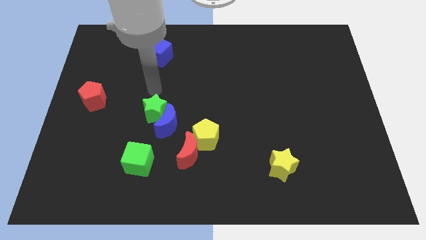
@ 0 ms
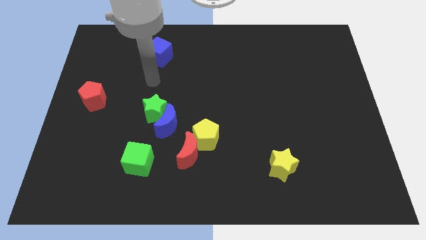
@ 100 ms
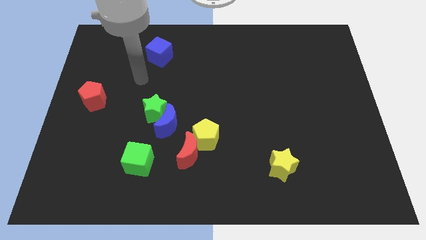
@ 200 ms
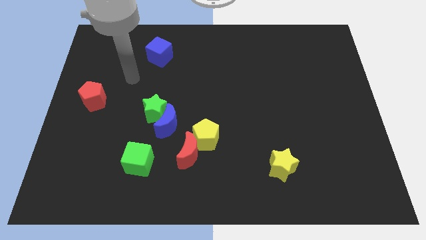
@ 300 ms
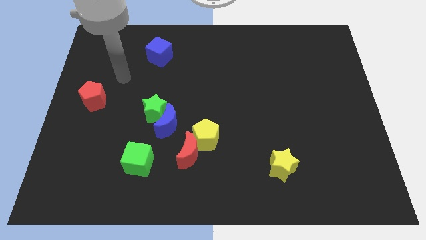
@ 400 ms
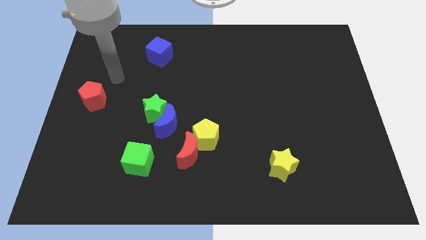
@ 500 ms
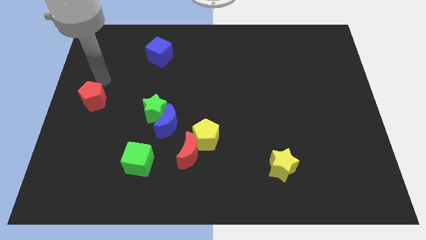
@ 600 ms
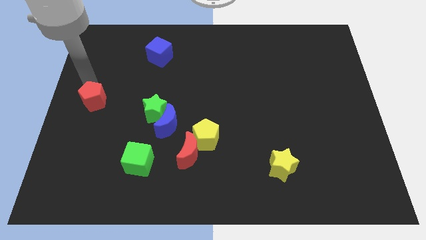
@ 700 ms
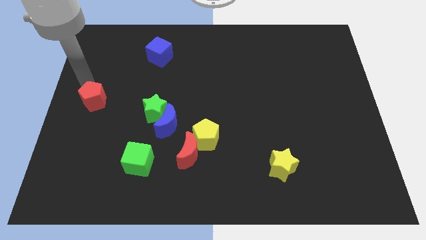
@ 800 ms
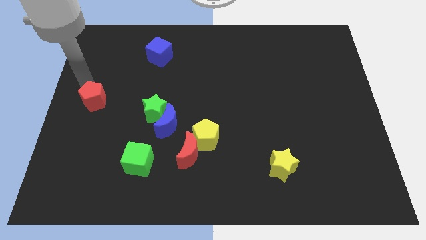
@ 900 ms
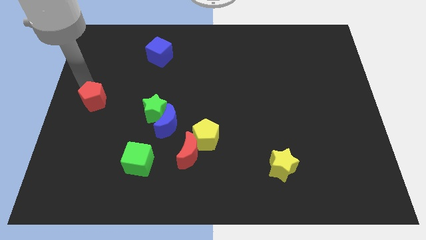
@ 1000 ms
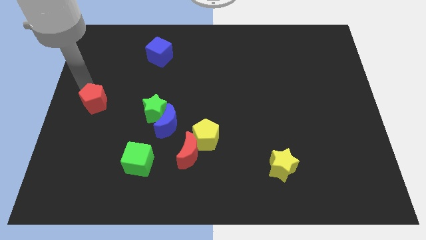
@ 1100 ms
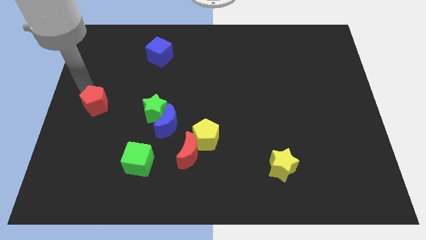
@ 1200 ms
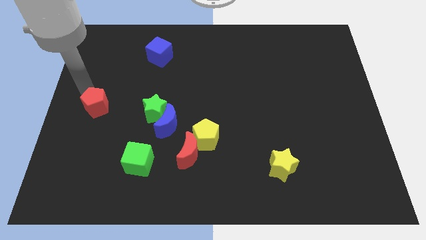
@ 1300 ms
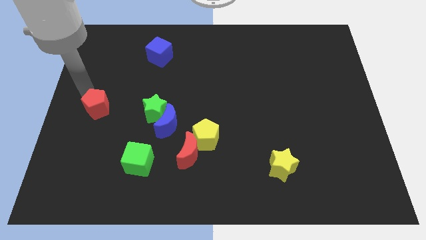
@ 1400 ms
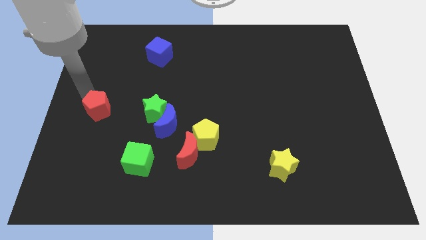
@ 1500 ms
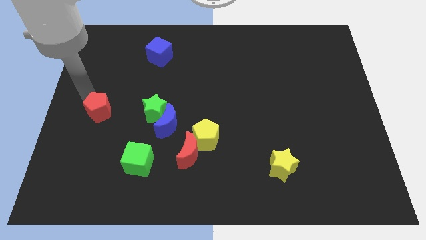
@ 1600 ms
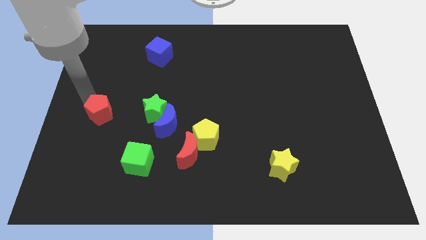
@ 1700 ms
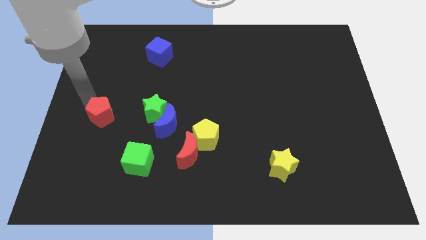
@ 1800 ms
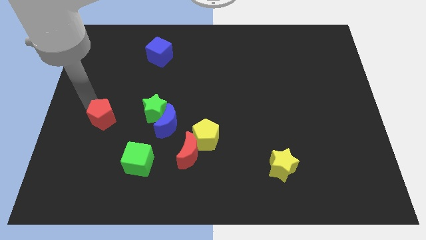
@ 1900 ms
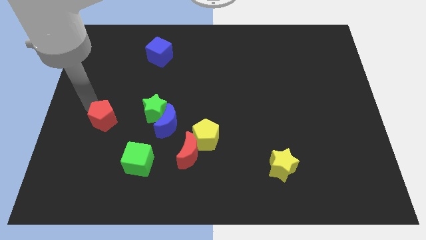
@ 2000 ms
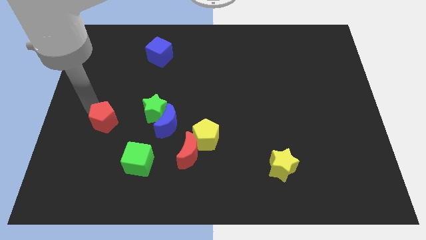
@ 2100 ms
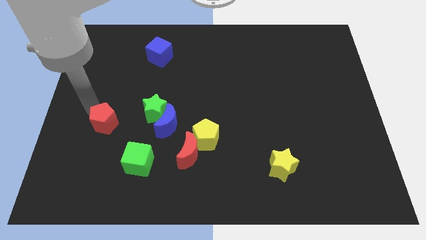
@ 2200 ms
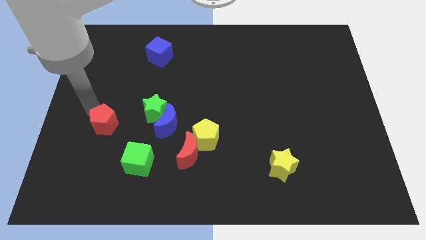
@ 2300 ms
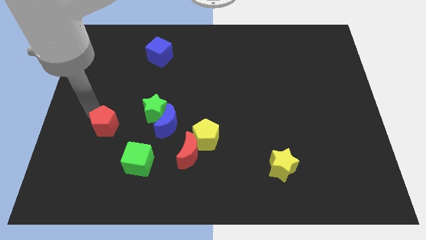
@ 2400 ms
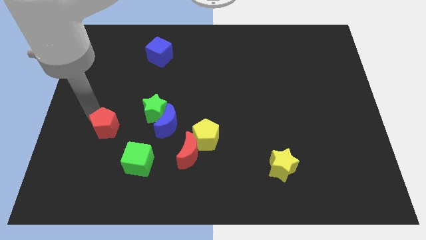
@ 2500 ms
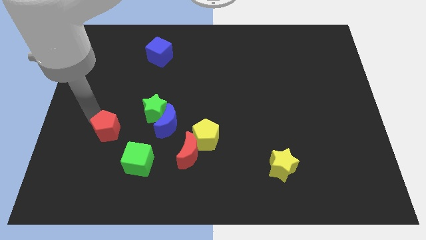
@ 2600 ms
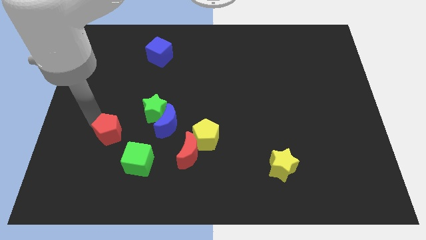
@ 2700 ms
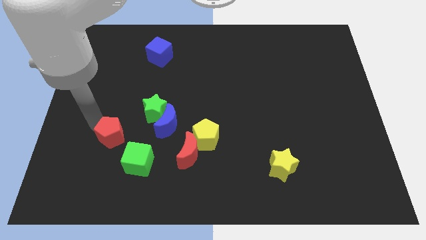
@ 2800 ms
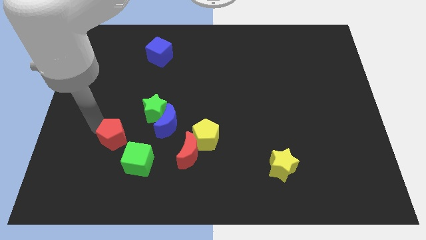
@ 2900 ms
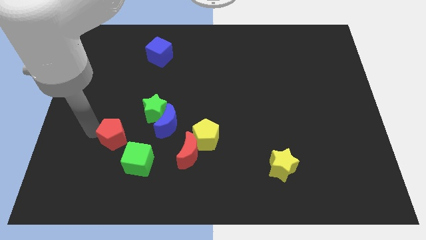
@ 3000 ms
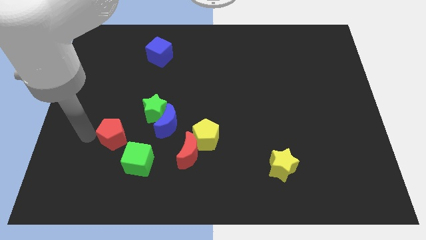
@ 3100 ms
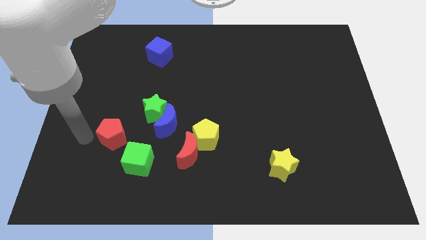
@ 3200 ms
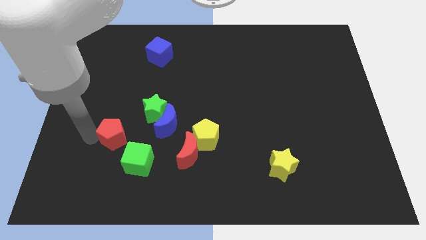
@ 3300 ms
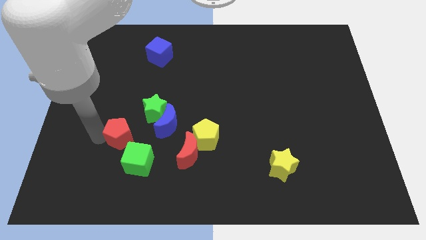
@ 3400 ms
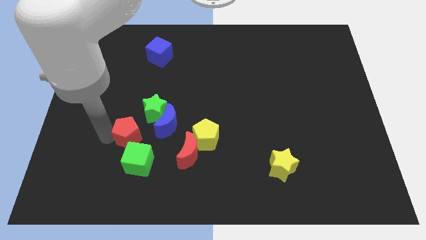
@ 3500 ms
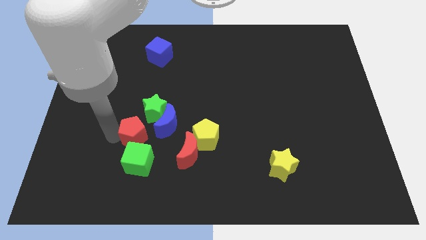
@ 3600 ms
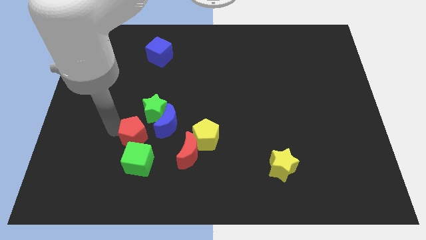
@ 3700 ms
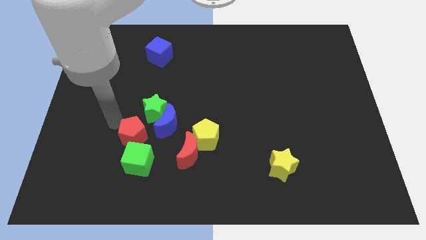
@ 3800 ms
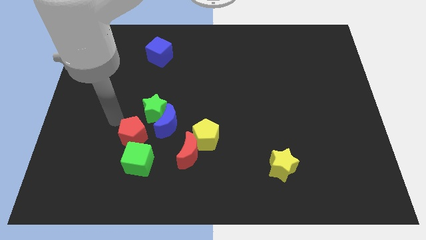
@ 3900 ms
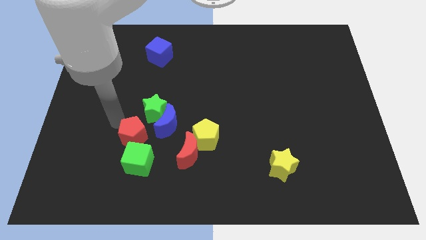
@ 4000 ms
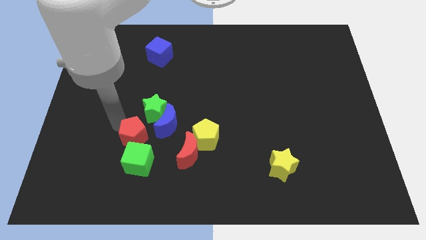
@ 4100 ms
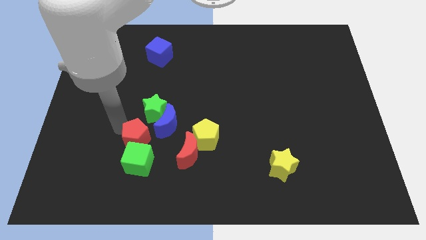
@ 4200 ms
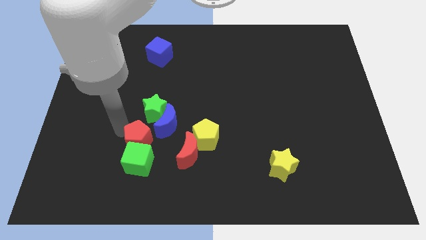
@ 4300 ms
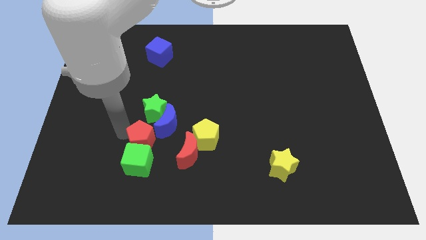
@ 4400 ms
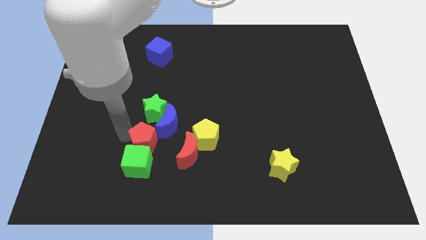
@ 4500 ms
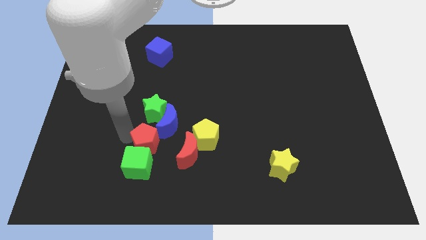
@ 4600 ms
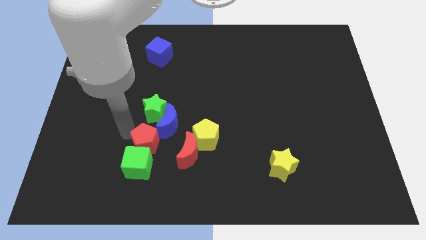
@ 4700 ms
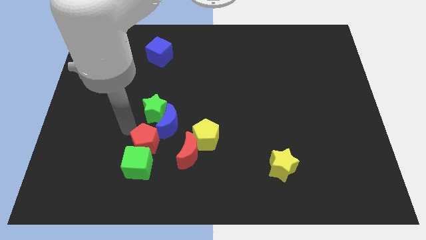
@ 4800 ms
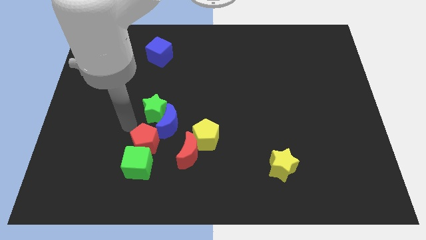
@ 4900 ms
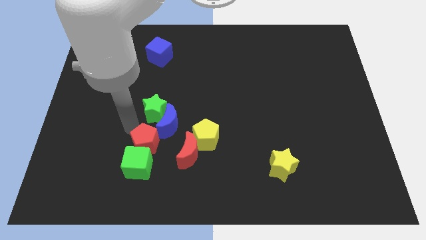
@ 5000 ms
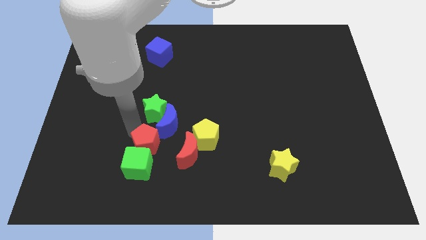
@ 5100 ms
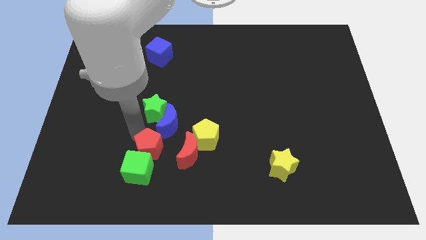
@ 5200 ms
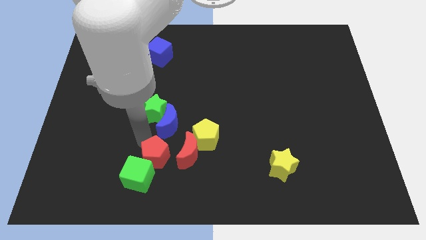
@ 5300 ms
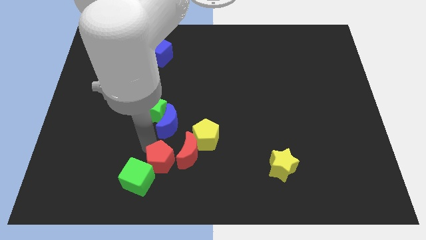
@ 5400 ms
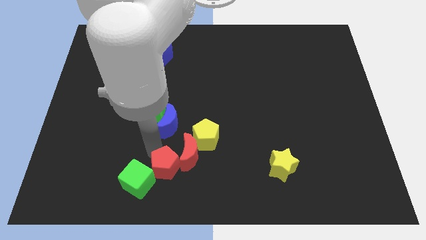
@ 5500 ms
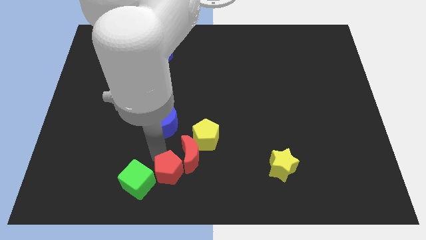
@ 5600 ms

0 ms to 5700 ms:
slide the red pentagon to the bottom

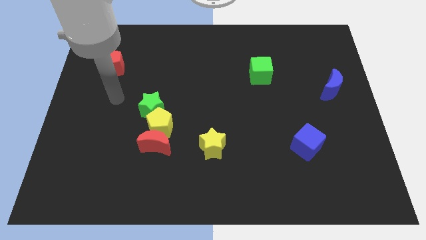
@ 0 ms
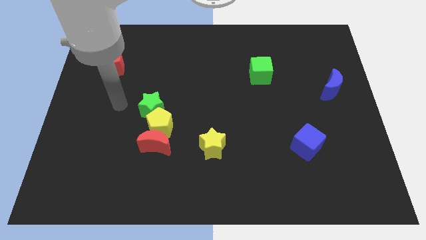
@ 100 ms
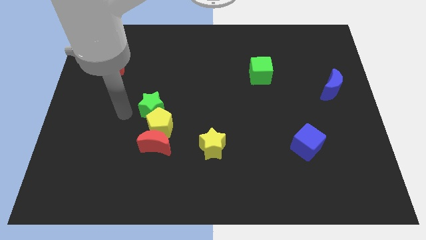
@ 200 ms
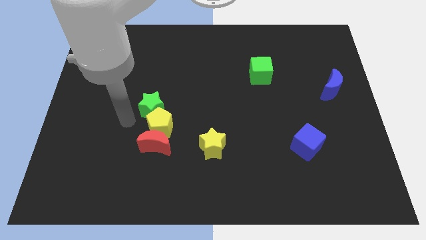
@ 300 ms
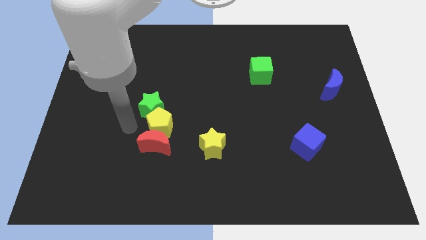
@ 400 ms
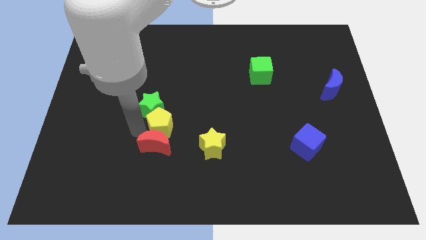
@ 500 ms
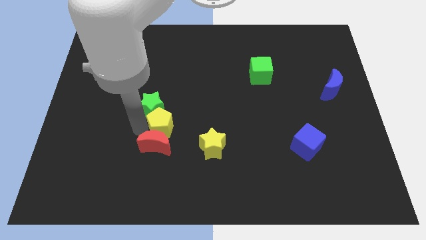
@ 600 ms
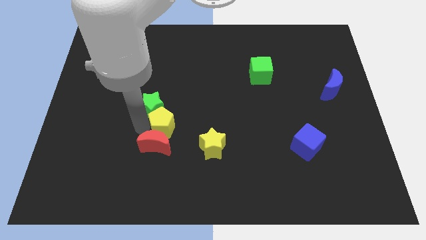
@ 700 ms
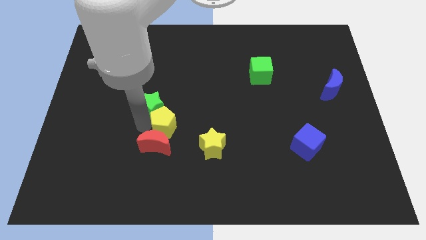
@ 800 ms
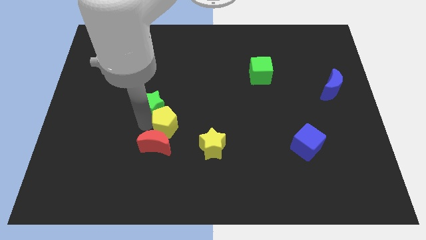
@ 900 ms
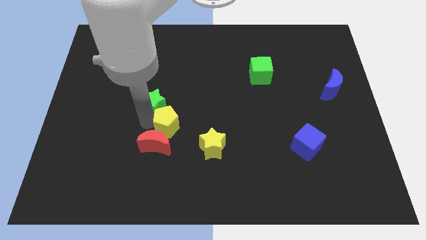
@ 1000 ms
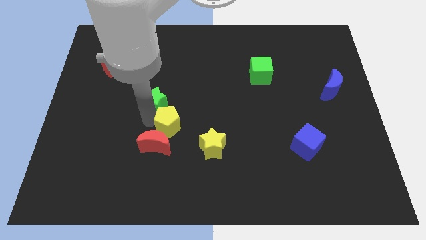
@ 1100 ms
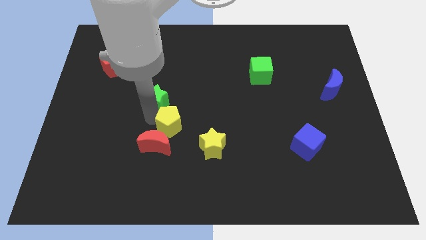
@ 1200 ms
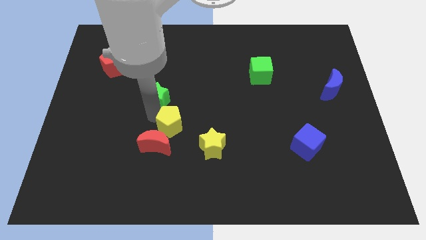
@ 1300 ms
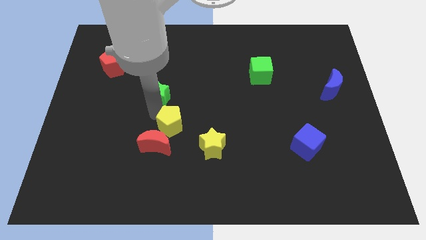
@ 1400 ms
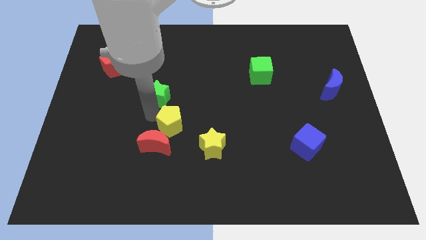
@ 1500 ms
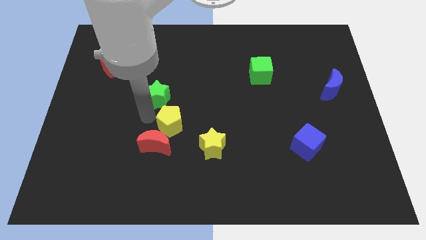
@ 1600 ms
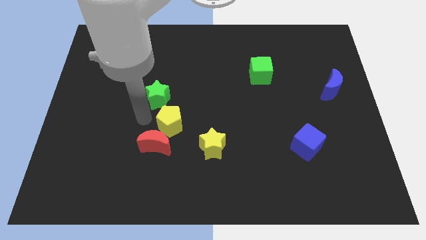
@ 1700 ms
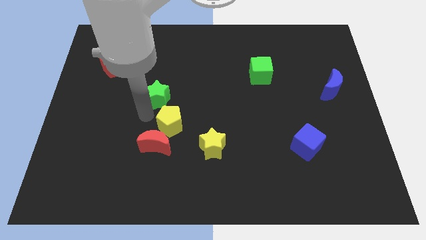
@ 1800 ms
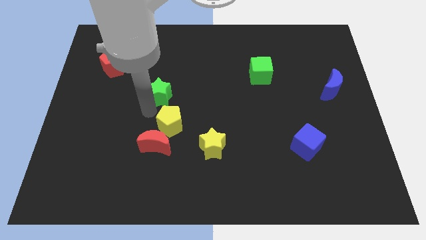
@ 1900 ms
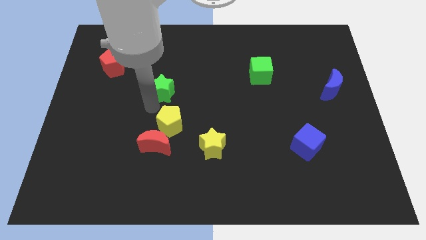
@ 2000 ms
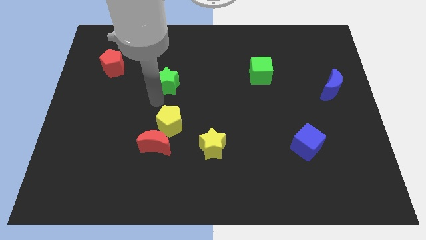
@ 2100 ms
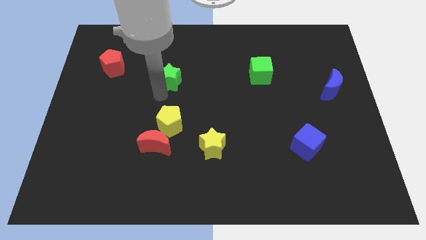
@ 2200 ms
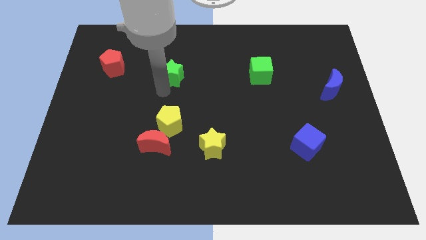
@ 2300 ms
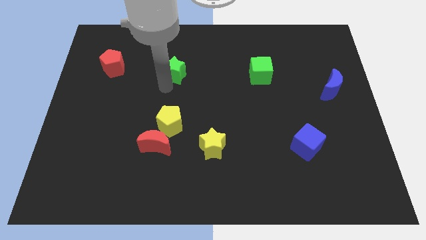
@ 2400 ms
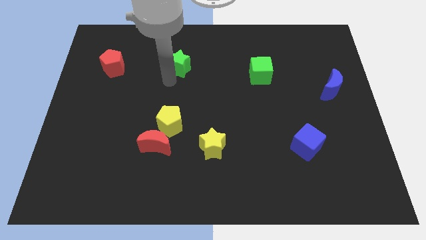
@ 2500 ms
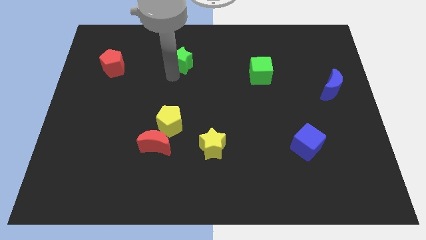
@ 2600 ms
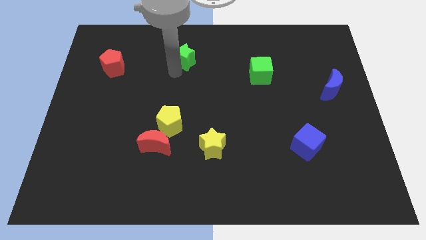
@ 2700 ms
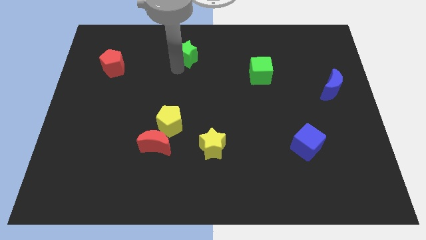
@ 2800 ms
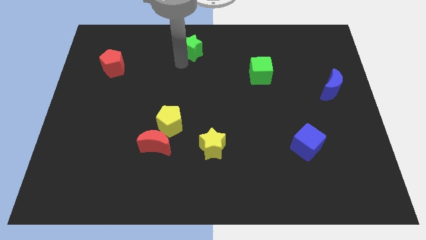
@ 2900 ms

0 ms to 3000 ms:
slide the green star to the top side
